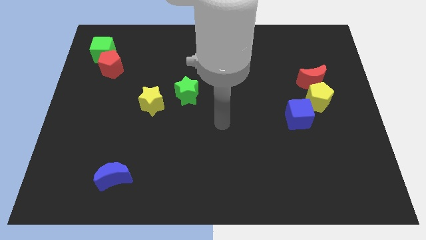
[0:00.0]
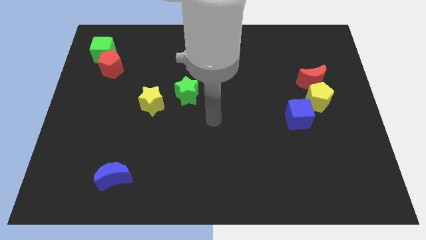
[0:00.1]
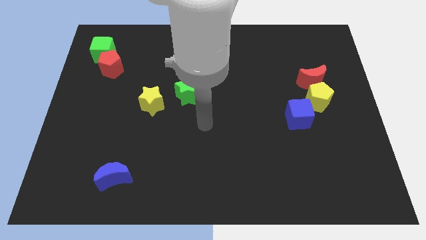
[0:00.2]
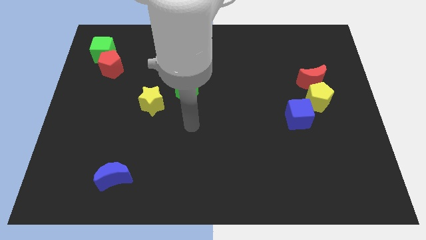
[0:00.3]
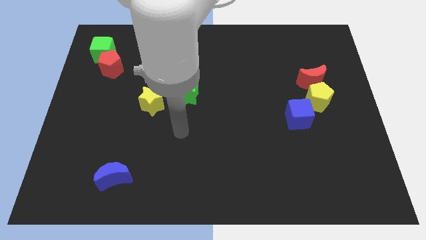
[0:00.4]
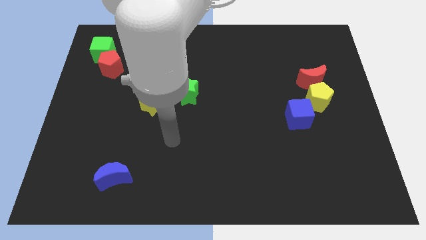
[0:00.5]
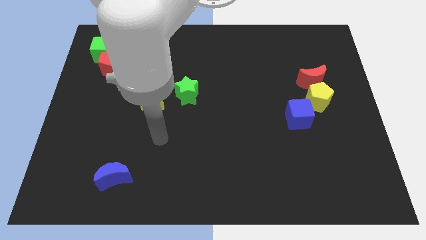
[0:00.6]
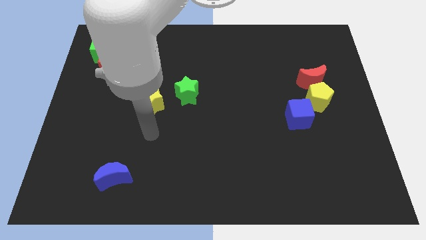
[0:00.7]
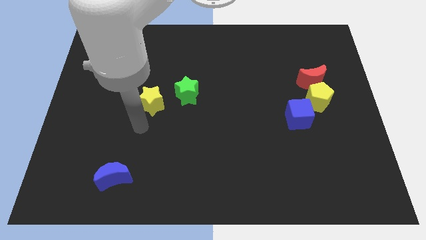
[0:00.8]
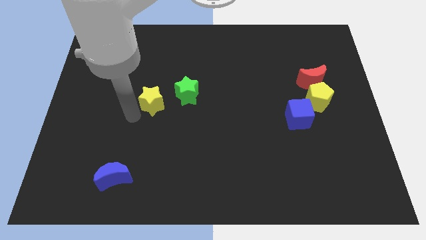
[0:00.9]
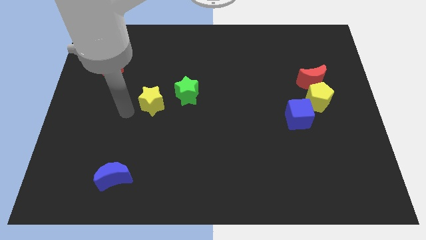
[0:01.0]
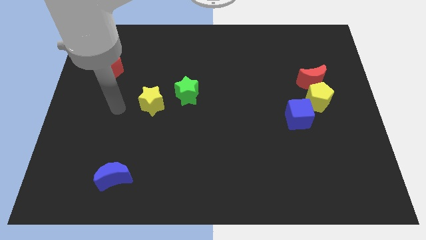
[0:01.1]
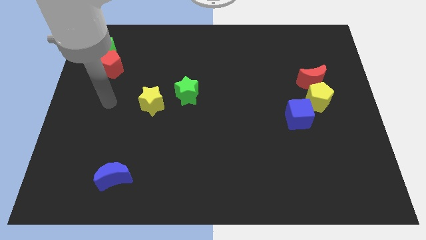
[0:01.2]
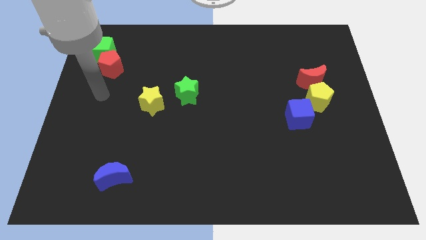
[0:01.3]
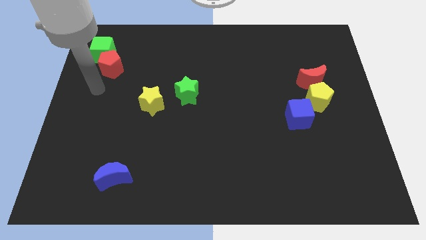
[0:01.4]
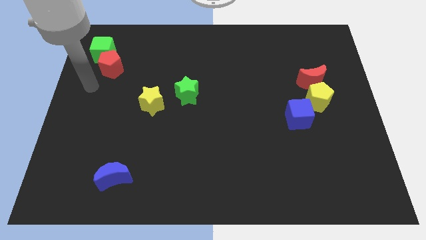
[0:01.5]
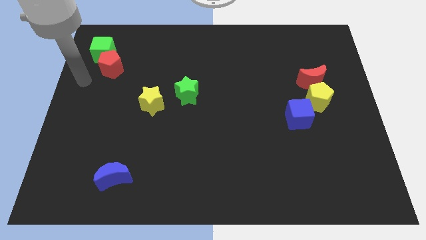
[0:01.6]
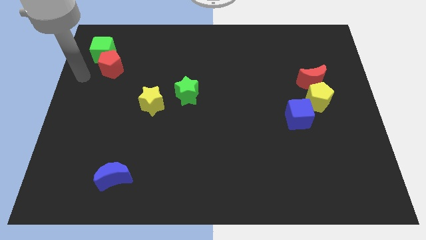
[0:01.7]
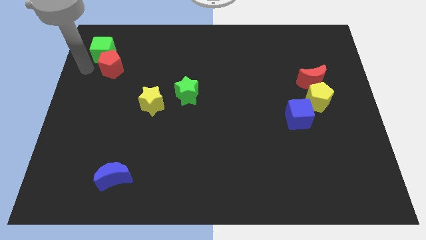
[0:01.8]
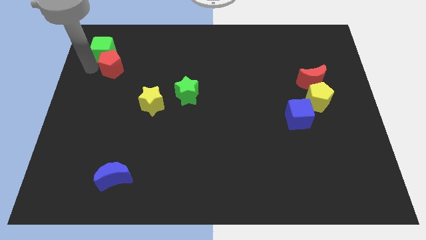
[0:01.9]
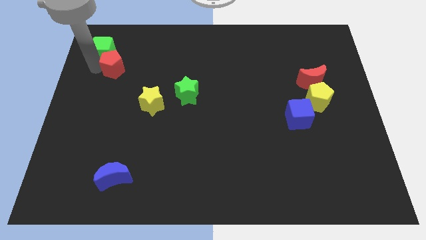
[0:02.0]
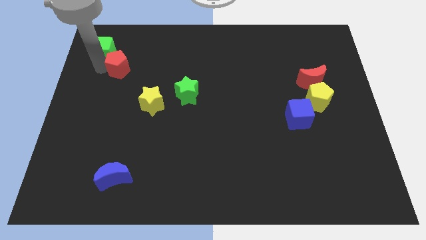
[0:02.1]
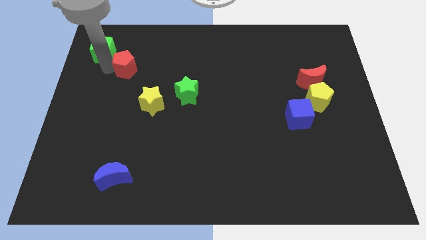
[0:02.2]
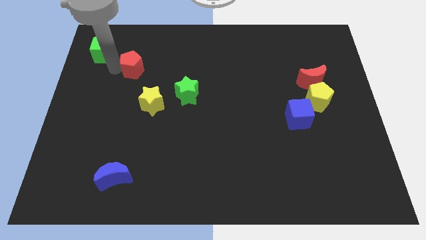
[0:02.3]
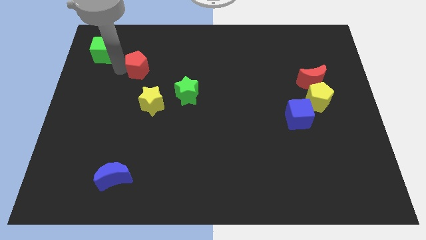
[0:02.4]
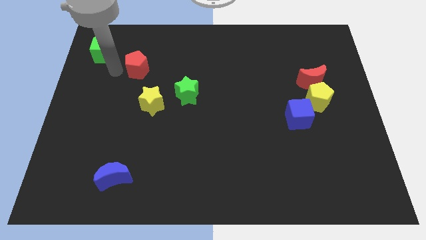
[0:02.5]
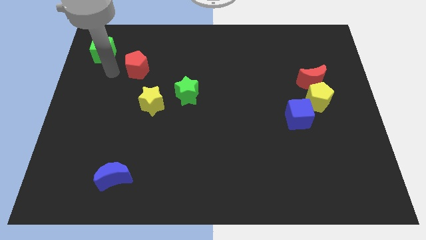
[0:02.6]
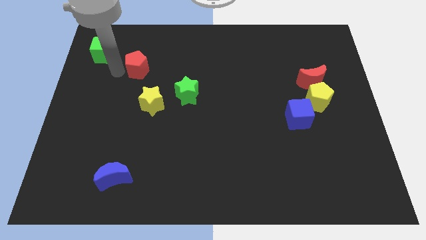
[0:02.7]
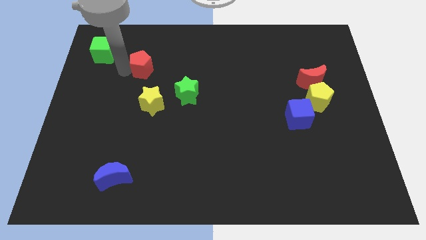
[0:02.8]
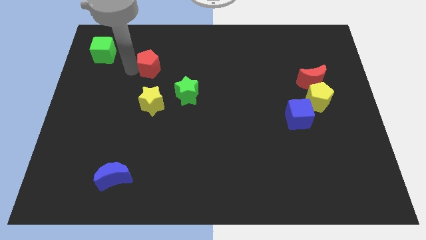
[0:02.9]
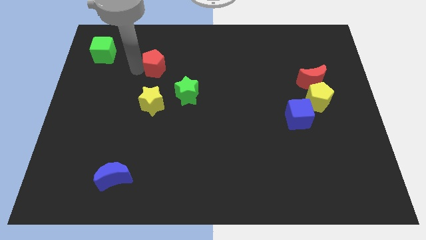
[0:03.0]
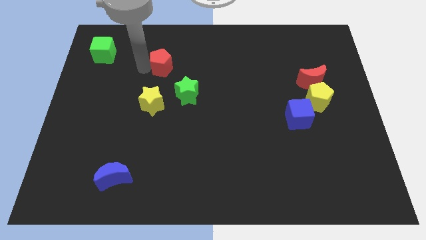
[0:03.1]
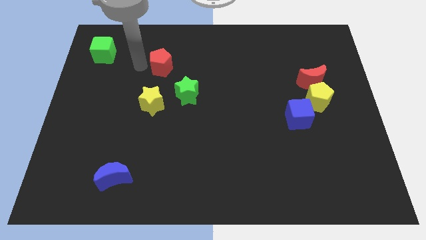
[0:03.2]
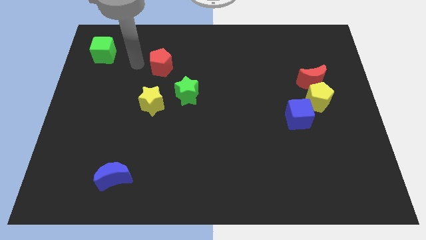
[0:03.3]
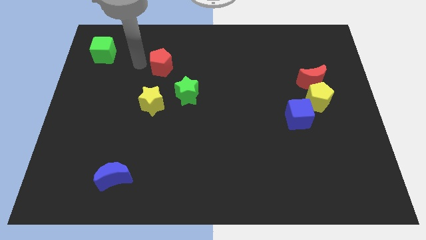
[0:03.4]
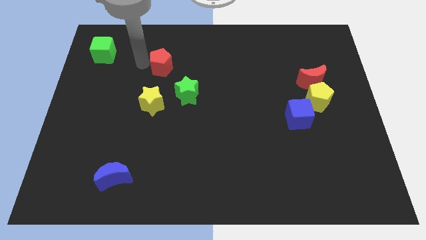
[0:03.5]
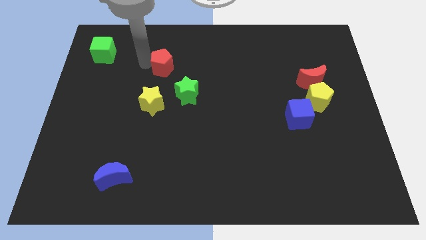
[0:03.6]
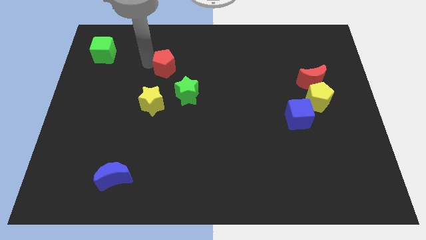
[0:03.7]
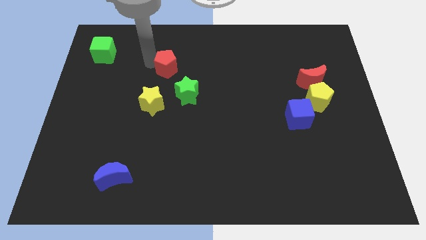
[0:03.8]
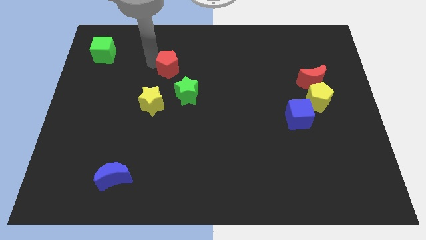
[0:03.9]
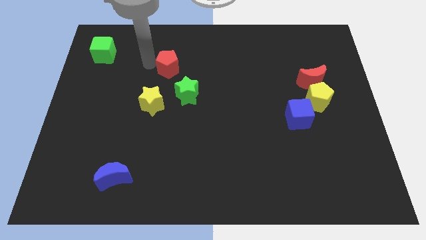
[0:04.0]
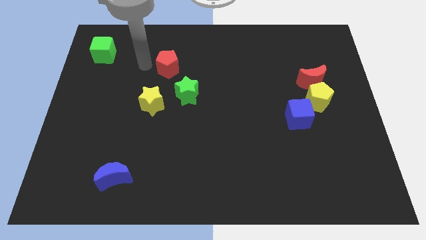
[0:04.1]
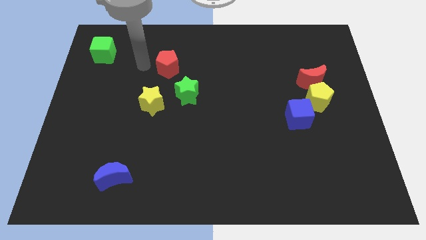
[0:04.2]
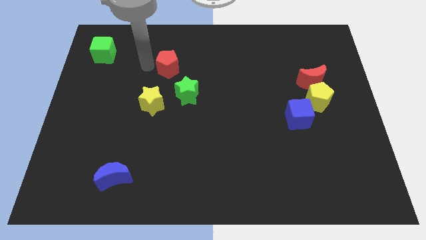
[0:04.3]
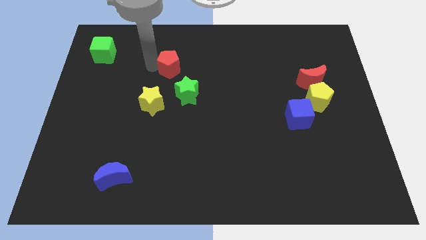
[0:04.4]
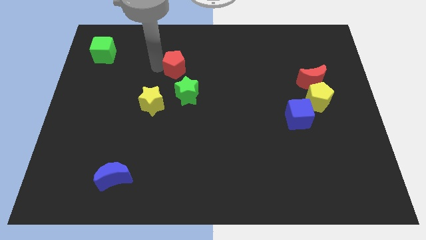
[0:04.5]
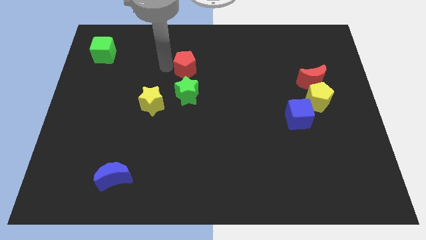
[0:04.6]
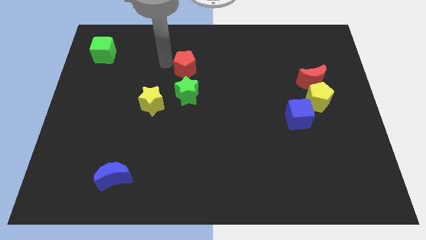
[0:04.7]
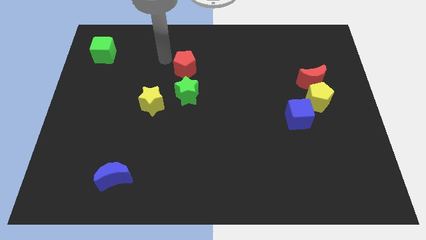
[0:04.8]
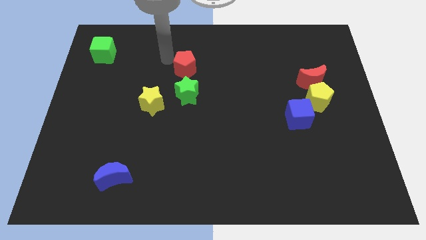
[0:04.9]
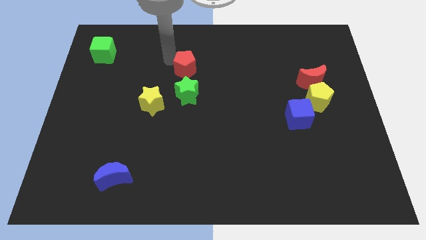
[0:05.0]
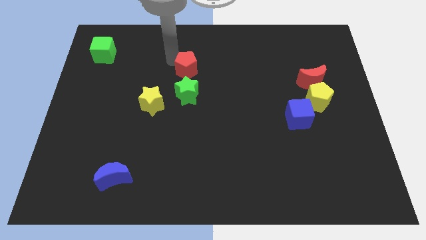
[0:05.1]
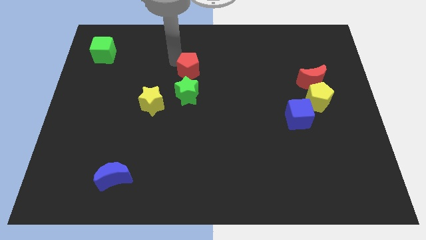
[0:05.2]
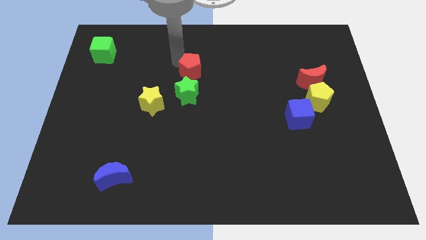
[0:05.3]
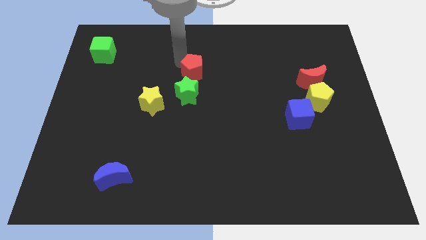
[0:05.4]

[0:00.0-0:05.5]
slide the red pentagon to the top right side of the green star

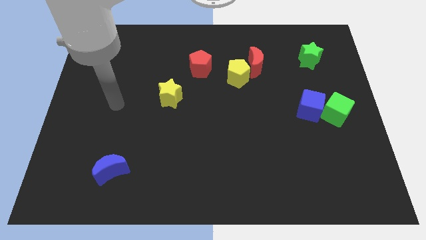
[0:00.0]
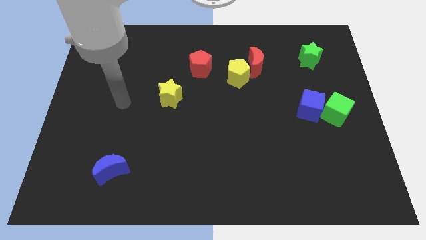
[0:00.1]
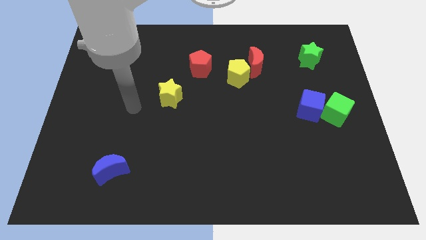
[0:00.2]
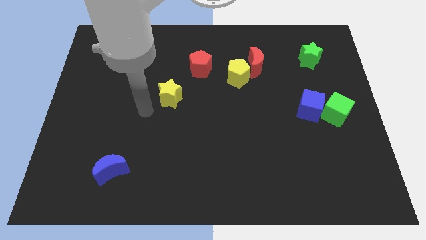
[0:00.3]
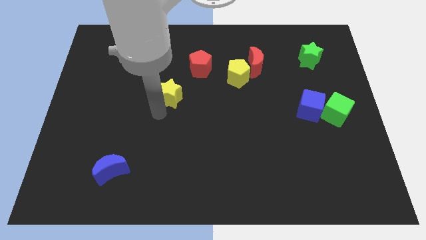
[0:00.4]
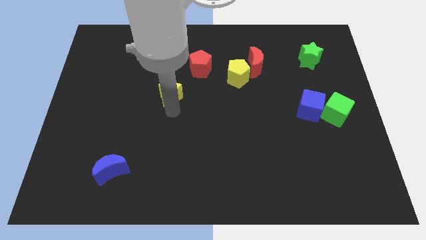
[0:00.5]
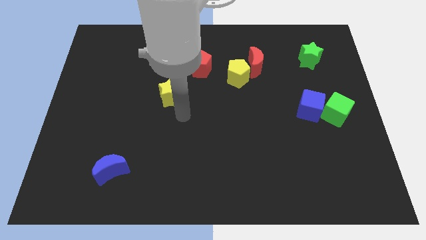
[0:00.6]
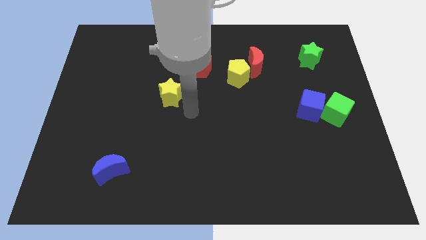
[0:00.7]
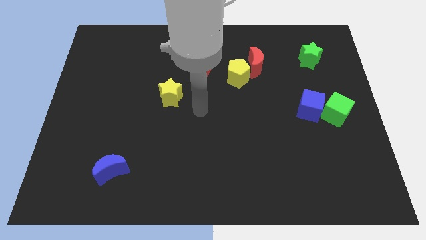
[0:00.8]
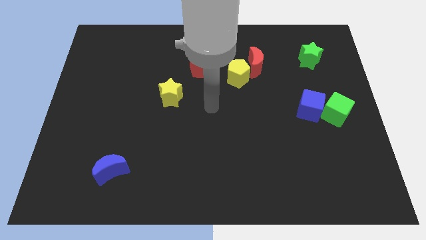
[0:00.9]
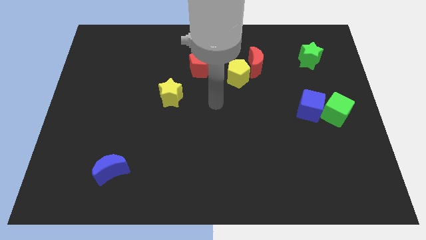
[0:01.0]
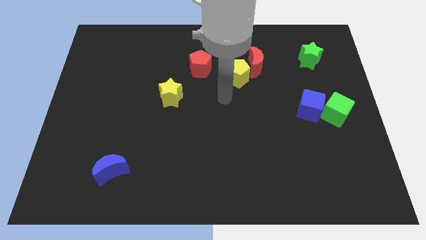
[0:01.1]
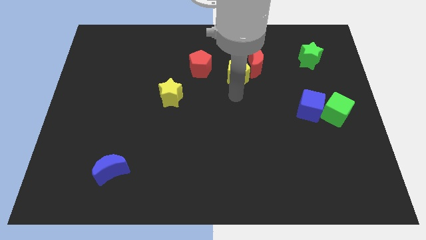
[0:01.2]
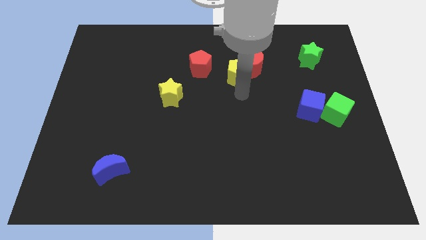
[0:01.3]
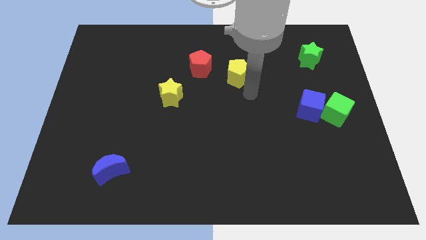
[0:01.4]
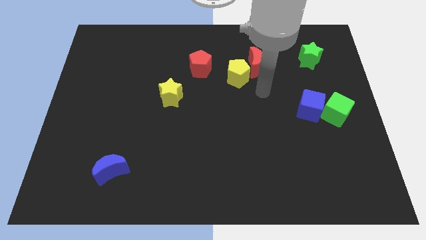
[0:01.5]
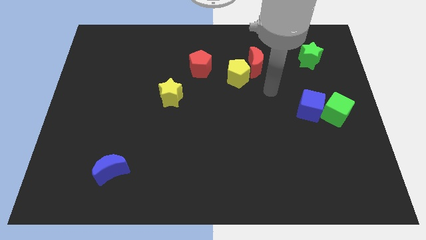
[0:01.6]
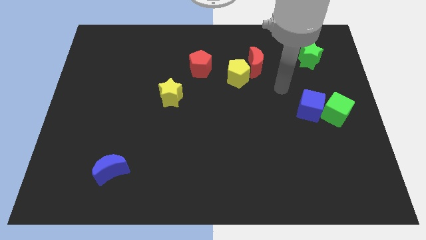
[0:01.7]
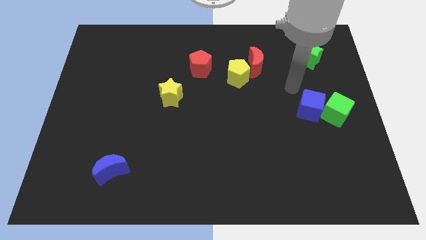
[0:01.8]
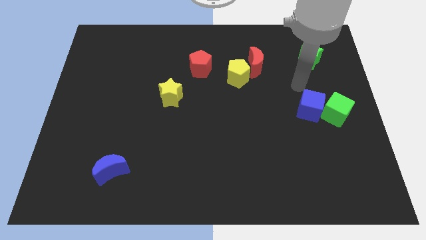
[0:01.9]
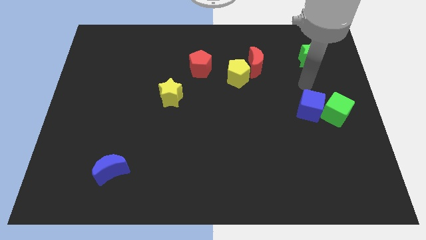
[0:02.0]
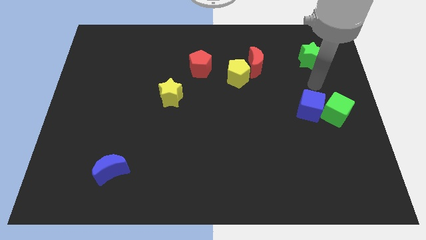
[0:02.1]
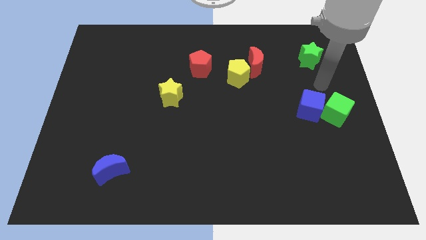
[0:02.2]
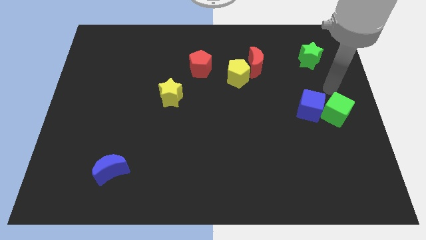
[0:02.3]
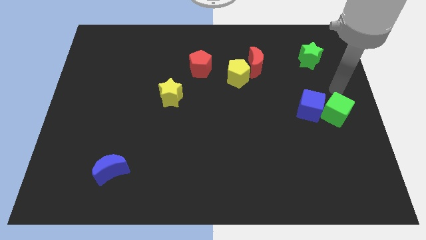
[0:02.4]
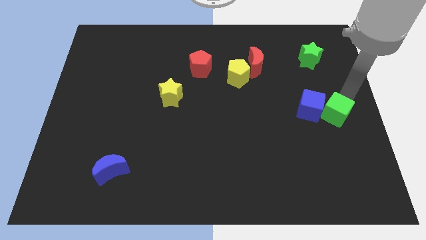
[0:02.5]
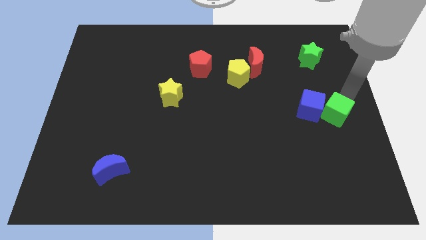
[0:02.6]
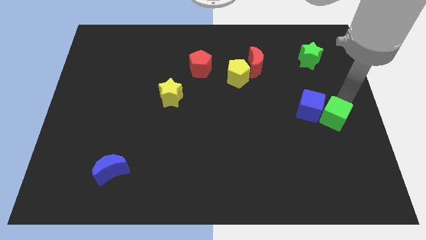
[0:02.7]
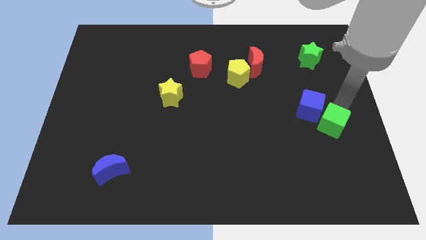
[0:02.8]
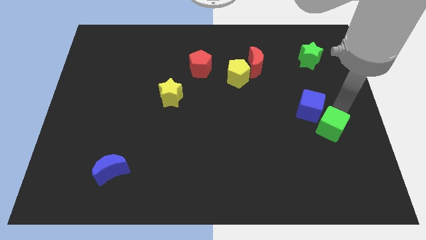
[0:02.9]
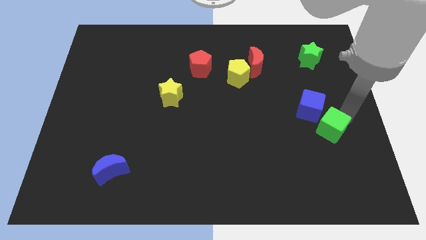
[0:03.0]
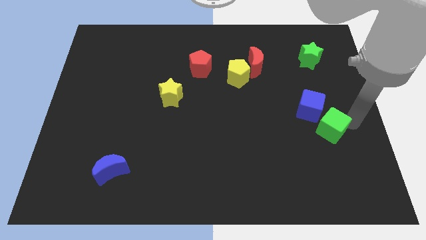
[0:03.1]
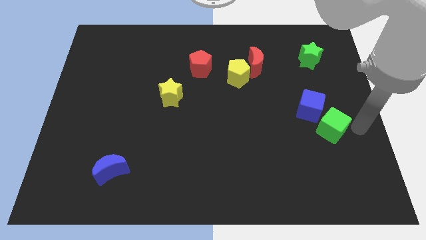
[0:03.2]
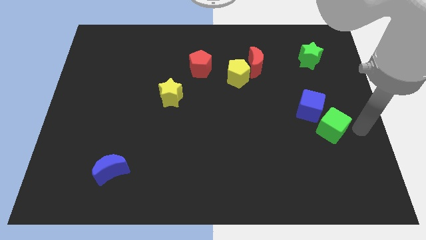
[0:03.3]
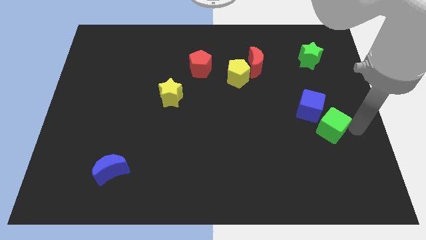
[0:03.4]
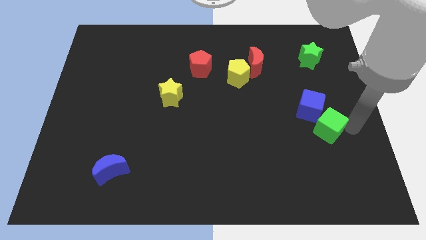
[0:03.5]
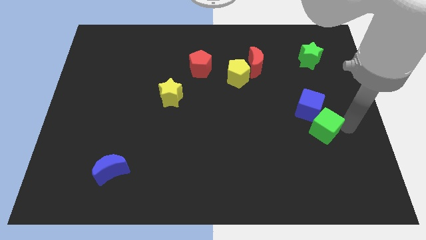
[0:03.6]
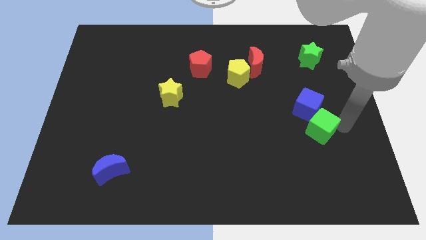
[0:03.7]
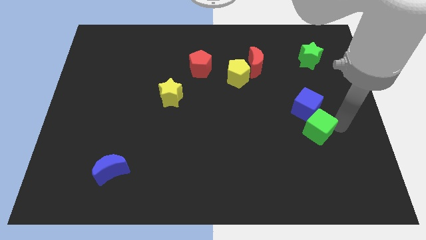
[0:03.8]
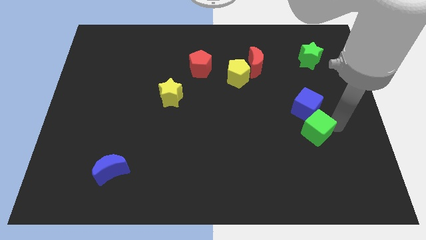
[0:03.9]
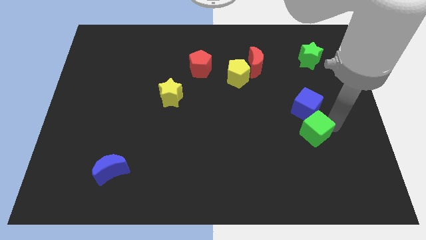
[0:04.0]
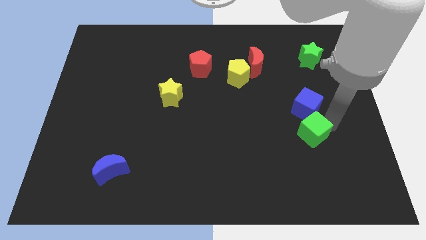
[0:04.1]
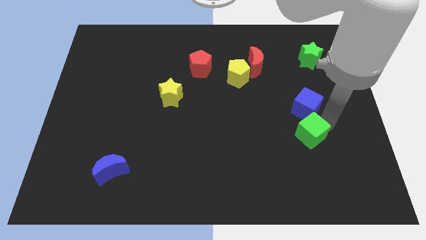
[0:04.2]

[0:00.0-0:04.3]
put the green cube to the bottom left side of the blue cube
